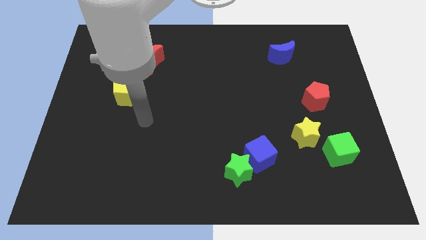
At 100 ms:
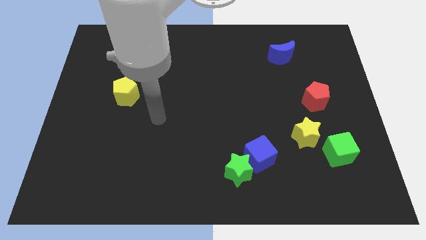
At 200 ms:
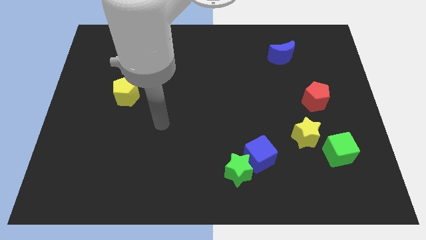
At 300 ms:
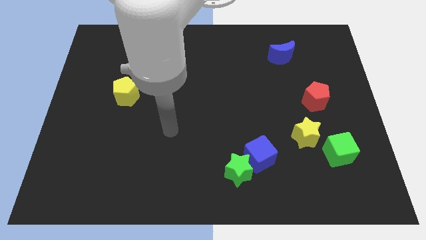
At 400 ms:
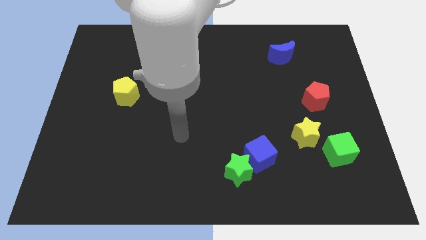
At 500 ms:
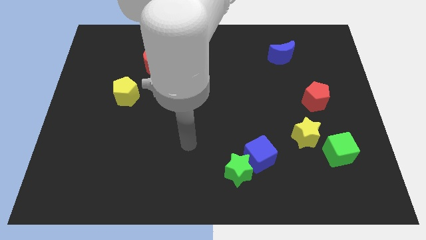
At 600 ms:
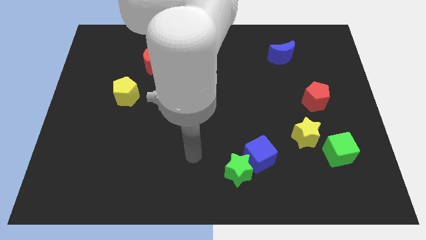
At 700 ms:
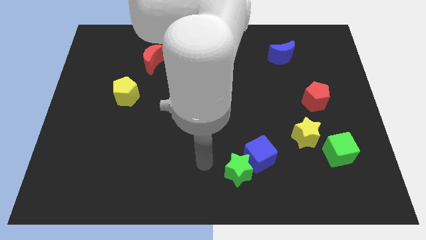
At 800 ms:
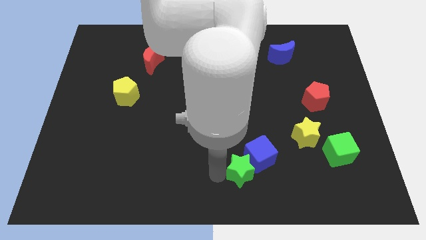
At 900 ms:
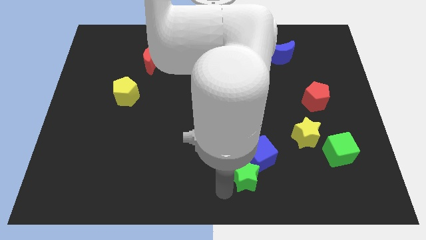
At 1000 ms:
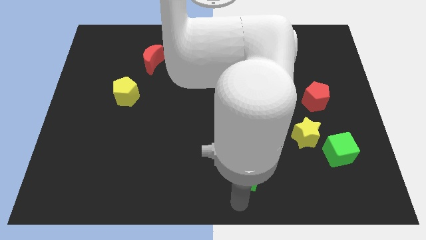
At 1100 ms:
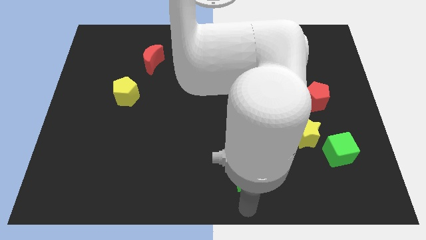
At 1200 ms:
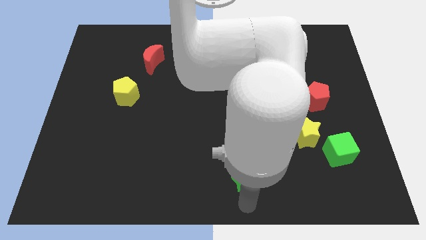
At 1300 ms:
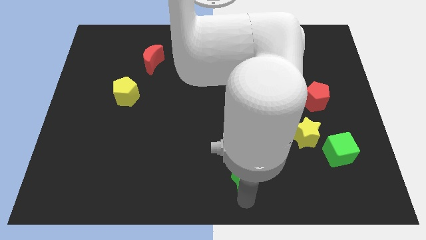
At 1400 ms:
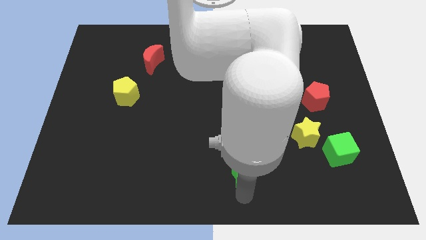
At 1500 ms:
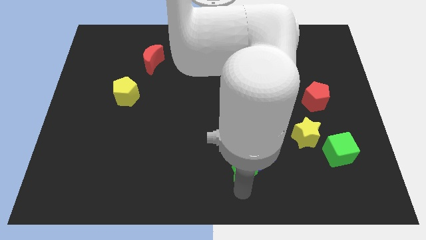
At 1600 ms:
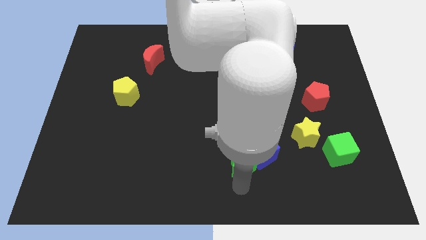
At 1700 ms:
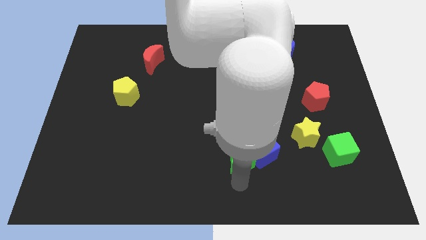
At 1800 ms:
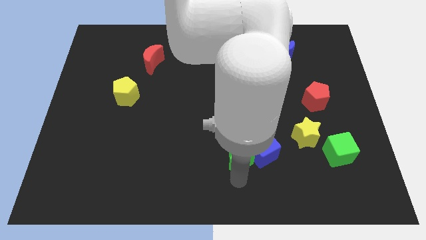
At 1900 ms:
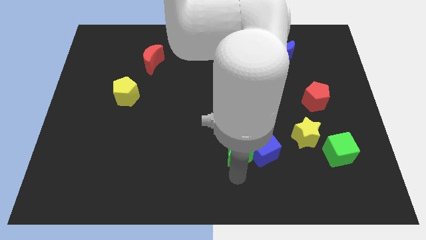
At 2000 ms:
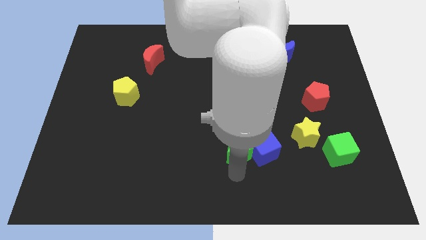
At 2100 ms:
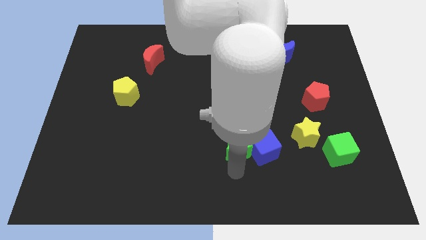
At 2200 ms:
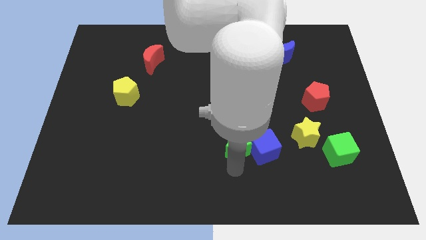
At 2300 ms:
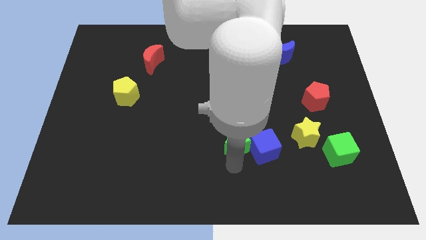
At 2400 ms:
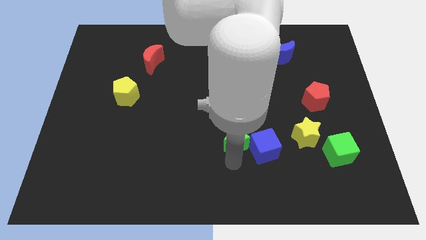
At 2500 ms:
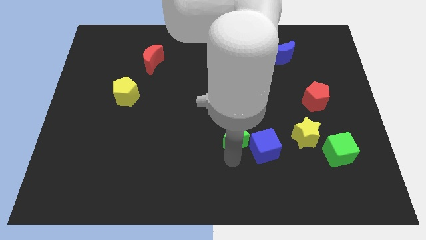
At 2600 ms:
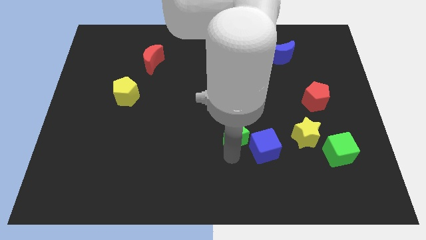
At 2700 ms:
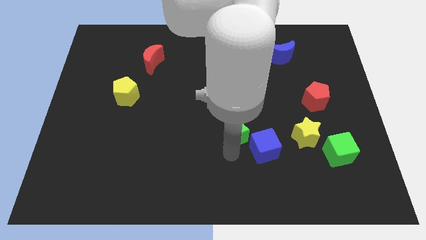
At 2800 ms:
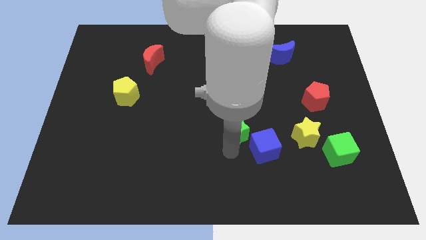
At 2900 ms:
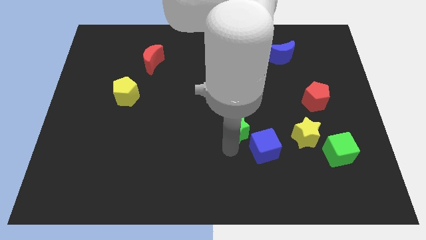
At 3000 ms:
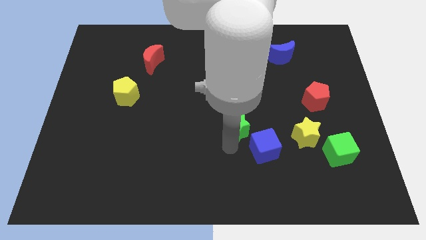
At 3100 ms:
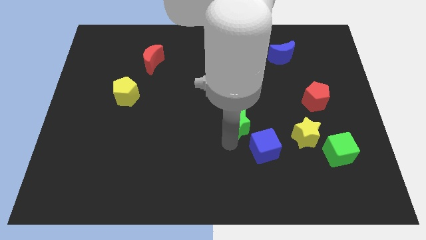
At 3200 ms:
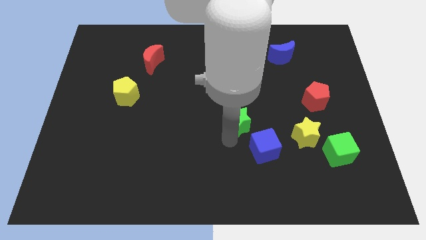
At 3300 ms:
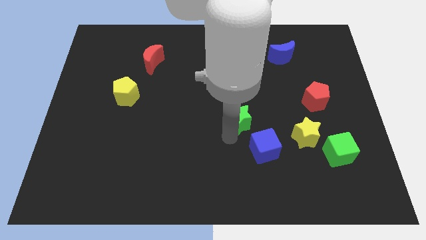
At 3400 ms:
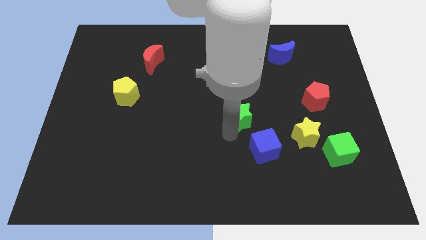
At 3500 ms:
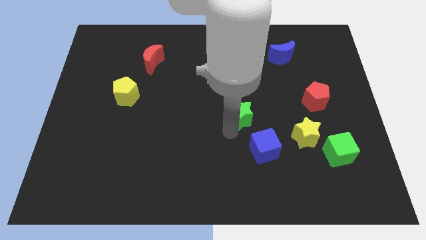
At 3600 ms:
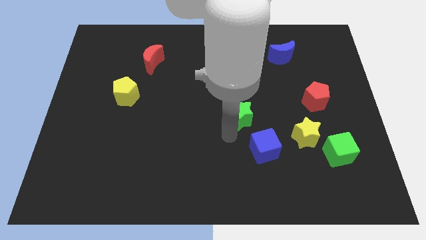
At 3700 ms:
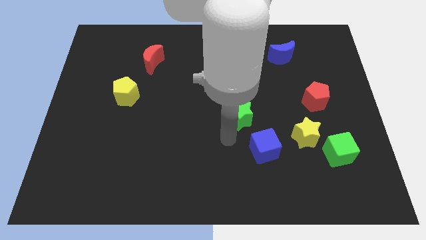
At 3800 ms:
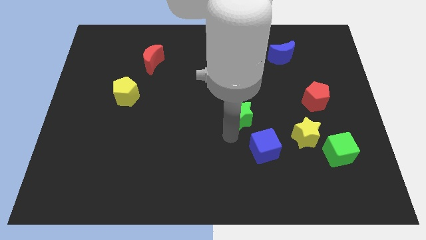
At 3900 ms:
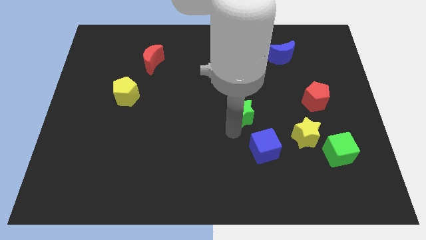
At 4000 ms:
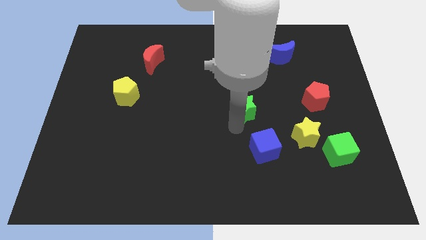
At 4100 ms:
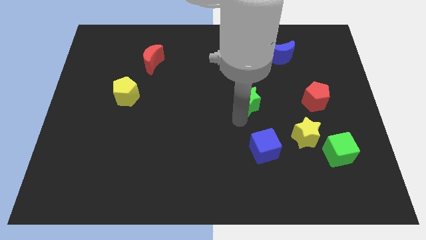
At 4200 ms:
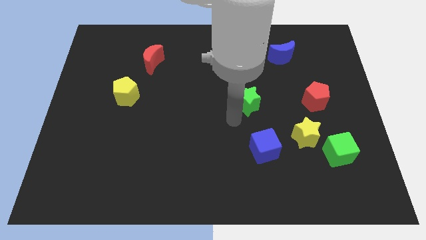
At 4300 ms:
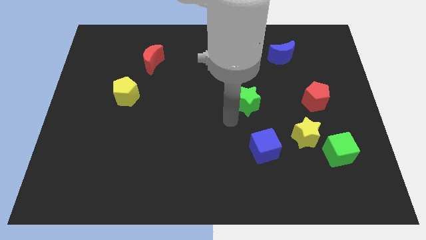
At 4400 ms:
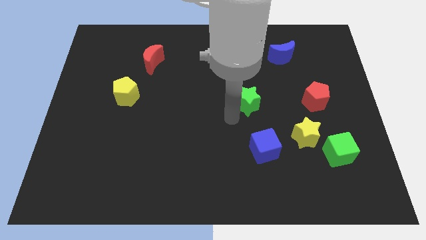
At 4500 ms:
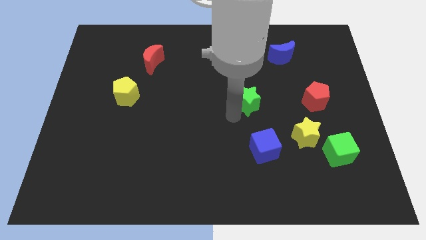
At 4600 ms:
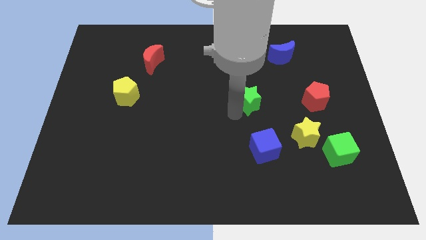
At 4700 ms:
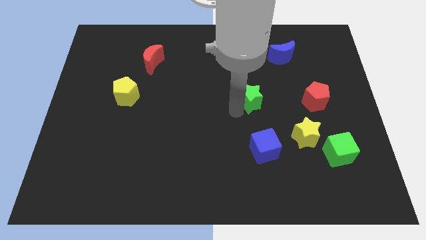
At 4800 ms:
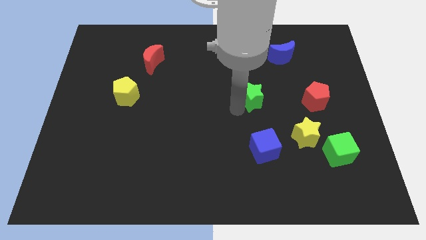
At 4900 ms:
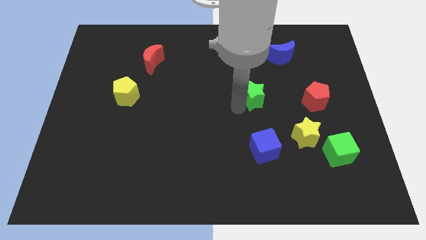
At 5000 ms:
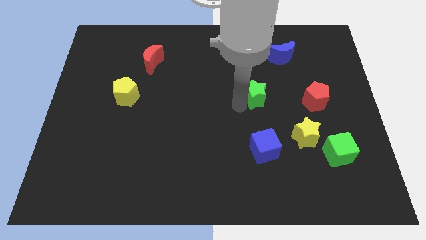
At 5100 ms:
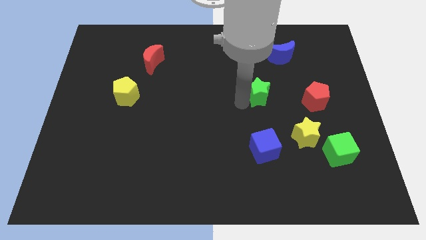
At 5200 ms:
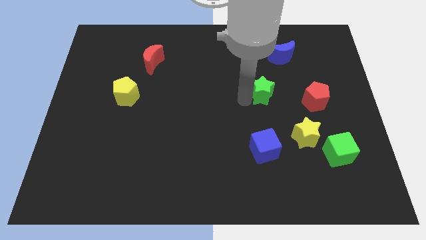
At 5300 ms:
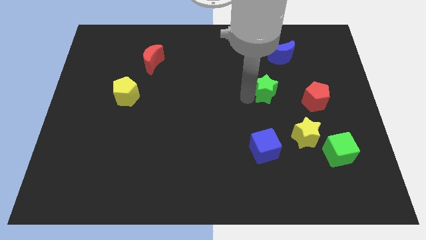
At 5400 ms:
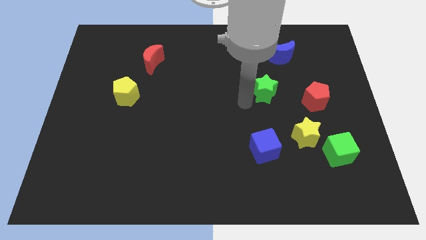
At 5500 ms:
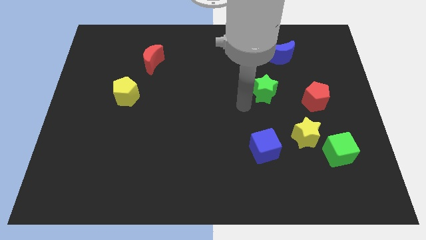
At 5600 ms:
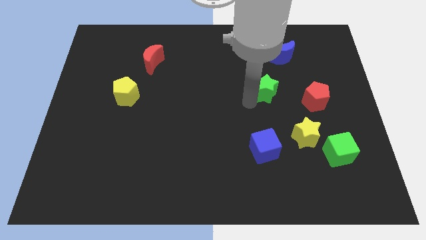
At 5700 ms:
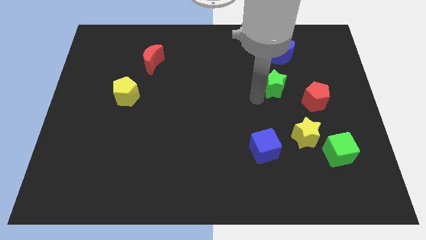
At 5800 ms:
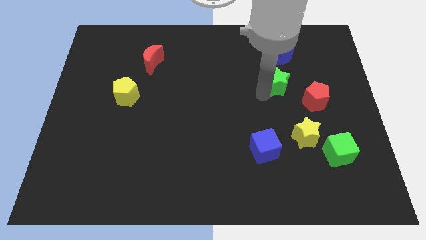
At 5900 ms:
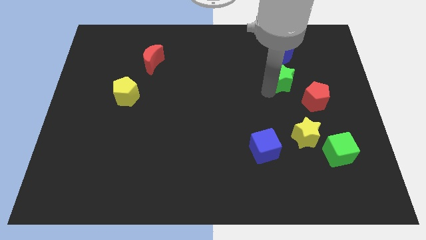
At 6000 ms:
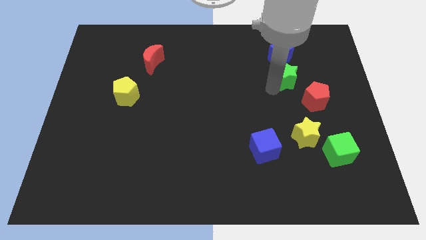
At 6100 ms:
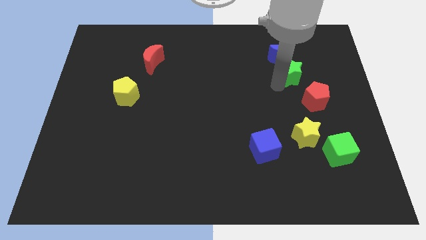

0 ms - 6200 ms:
move the green star to the bottom right of the blue moon
